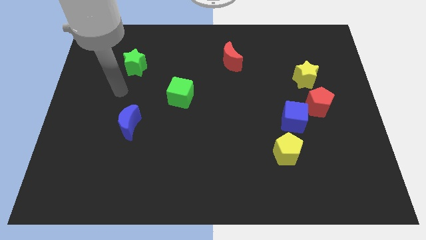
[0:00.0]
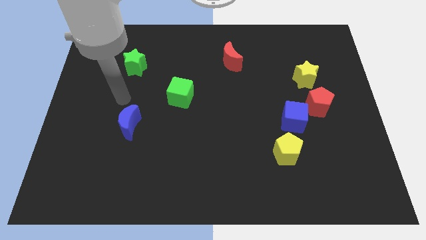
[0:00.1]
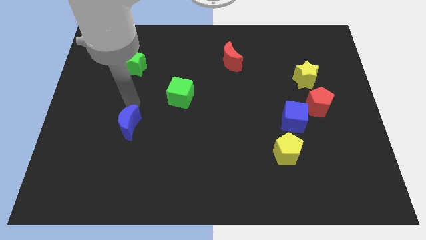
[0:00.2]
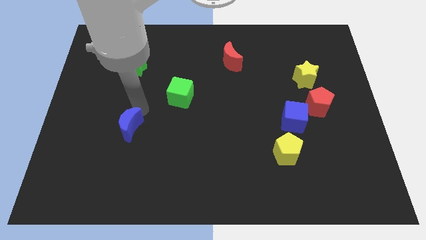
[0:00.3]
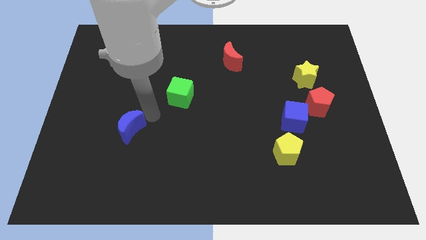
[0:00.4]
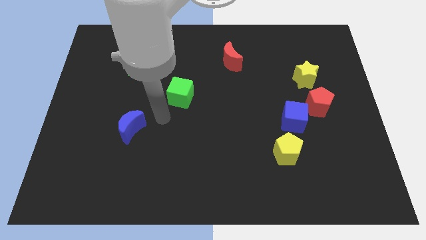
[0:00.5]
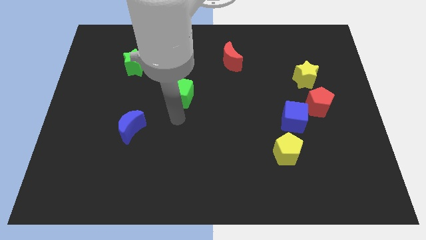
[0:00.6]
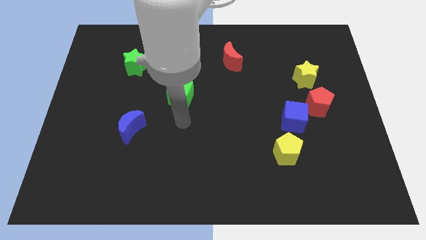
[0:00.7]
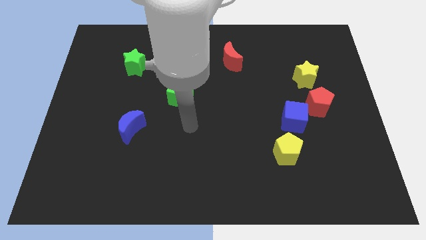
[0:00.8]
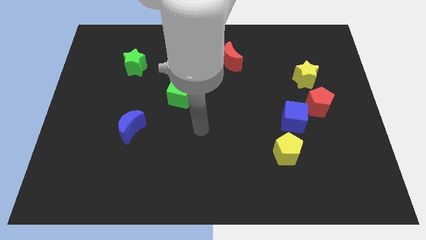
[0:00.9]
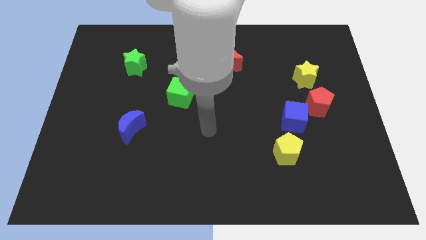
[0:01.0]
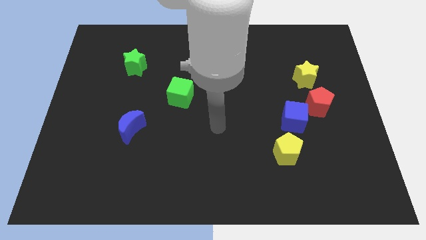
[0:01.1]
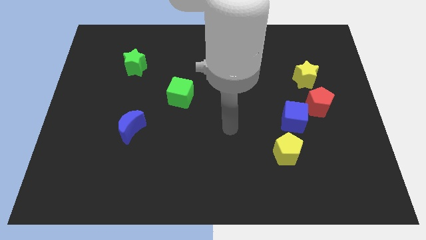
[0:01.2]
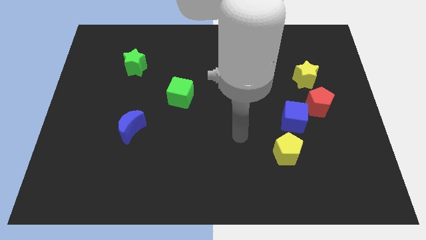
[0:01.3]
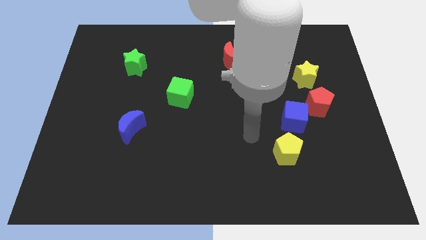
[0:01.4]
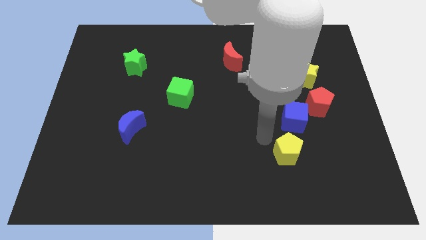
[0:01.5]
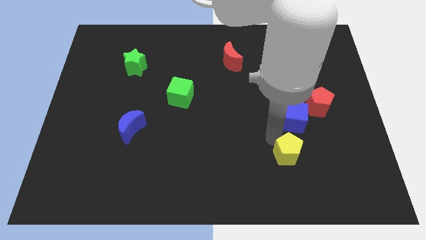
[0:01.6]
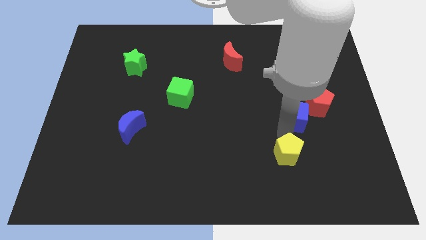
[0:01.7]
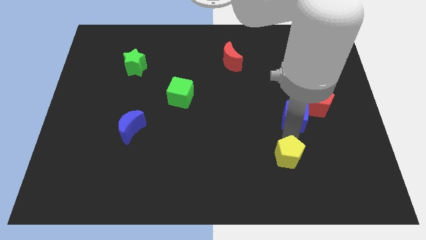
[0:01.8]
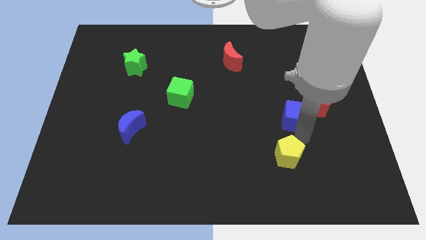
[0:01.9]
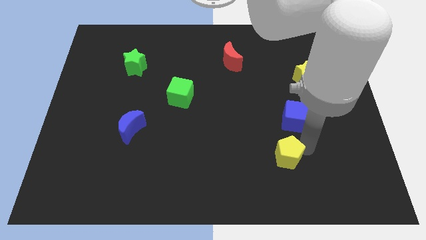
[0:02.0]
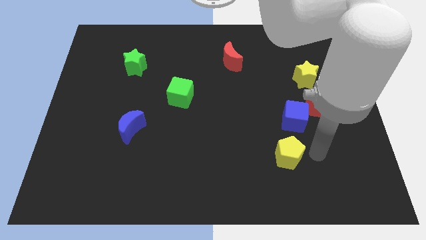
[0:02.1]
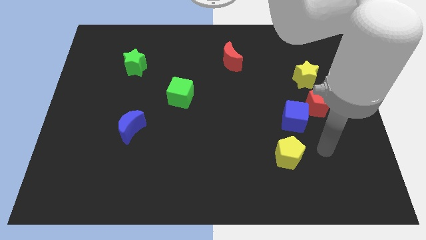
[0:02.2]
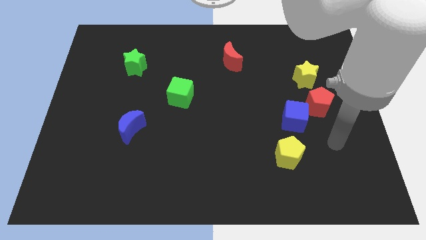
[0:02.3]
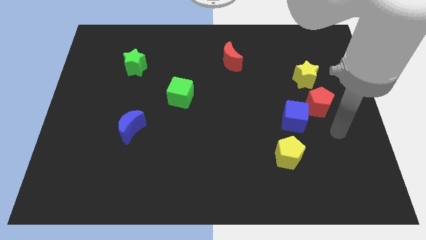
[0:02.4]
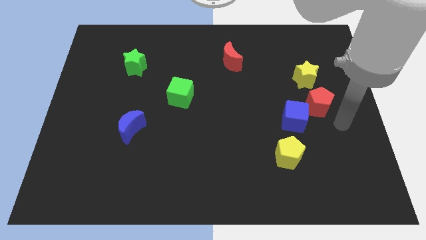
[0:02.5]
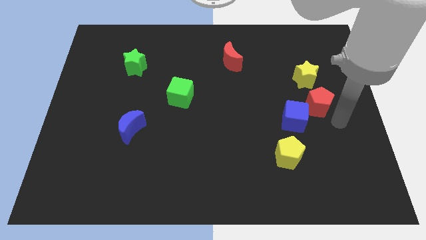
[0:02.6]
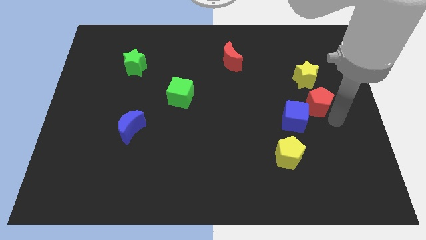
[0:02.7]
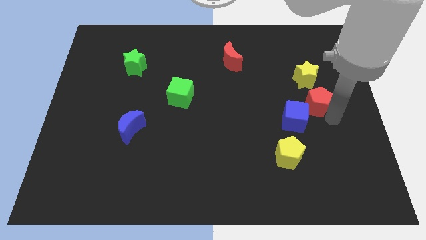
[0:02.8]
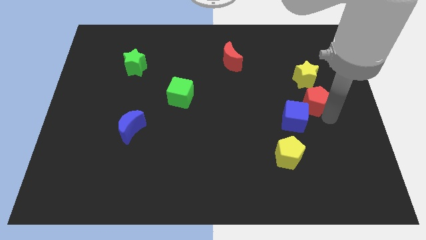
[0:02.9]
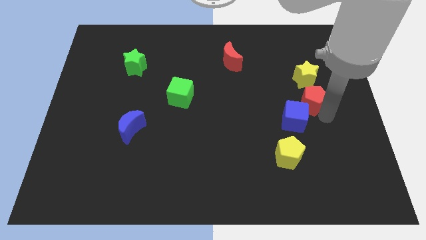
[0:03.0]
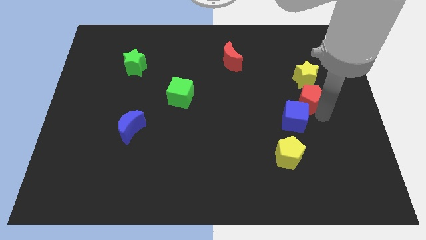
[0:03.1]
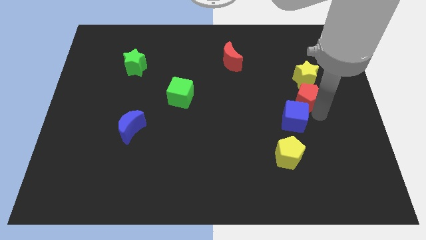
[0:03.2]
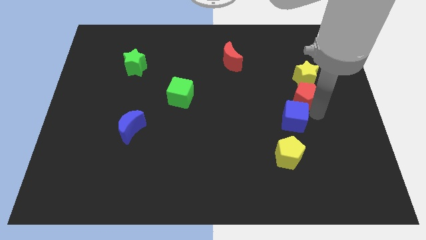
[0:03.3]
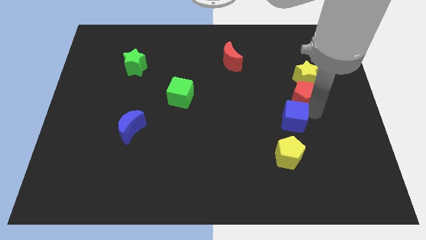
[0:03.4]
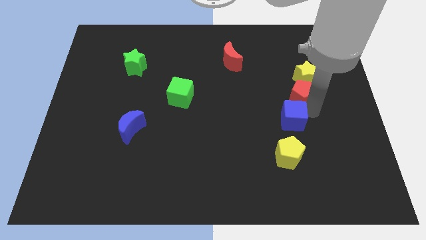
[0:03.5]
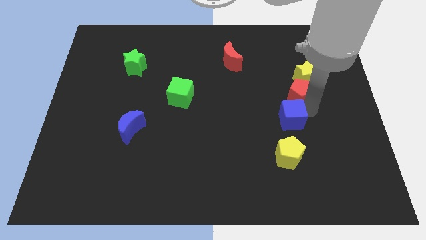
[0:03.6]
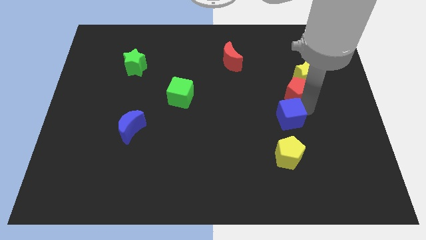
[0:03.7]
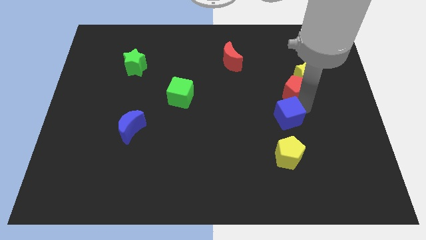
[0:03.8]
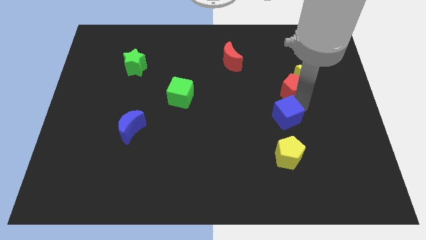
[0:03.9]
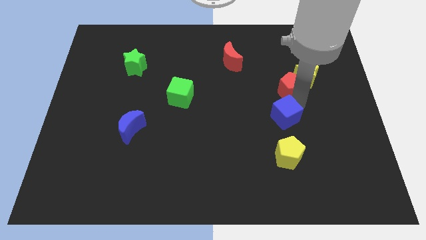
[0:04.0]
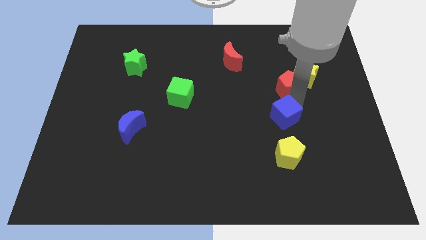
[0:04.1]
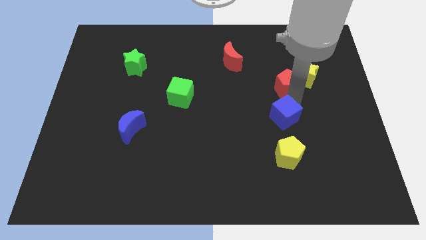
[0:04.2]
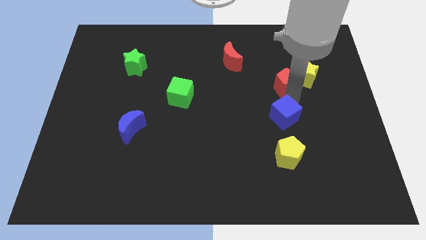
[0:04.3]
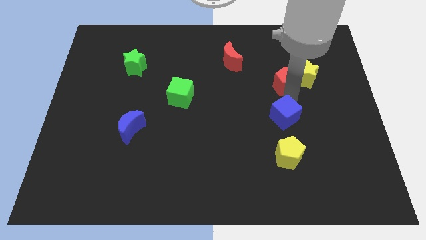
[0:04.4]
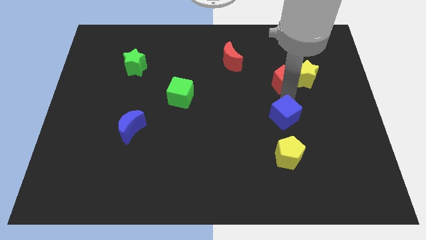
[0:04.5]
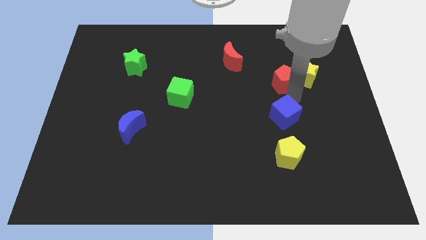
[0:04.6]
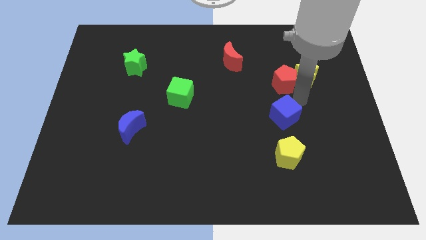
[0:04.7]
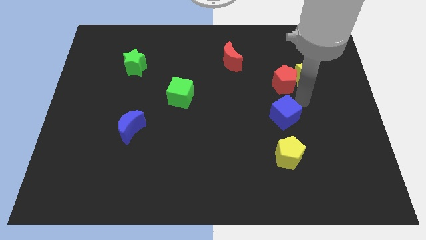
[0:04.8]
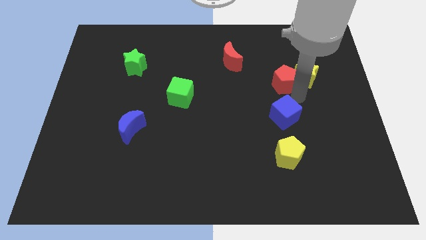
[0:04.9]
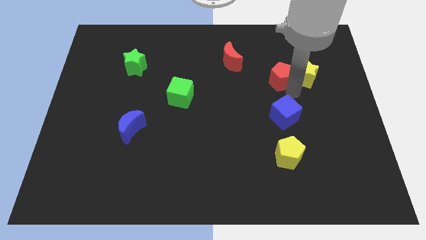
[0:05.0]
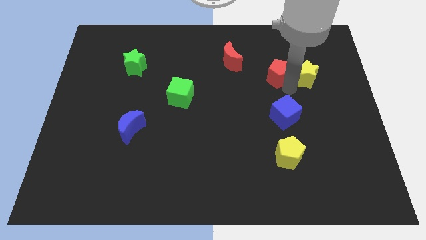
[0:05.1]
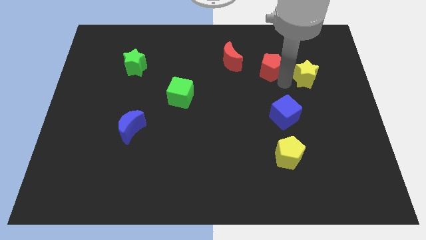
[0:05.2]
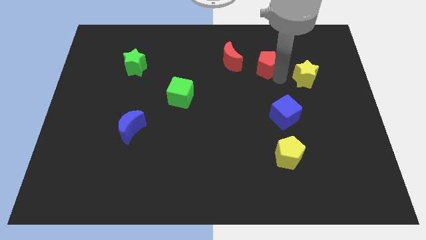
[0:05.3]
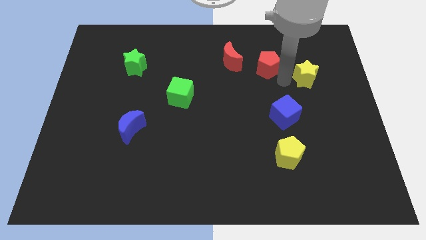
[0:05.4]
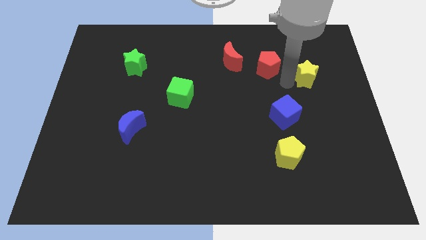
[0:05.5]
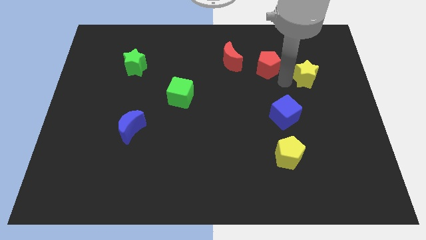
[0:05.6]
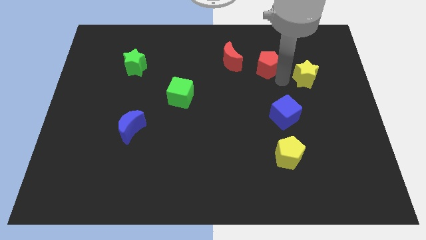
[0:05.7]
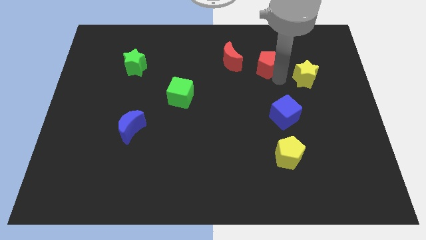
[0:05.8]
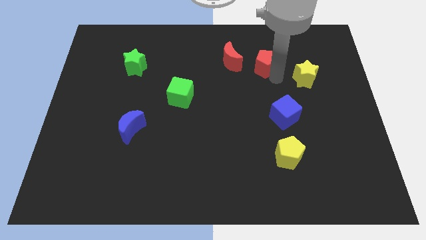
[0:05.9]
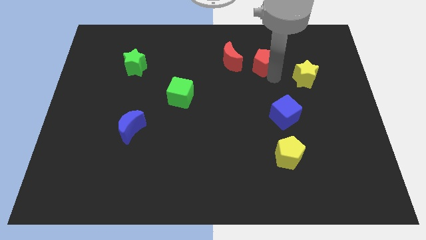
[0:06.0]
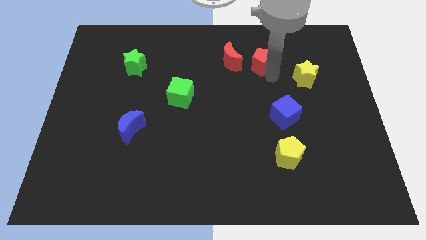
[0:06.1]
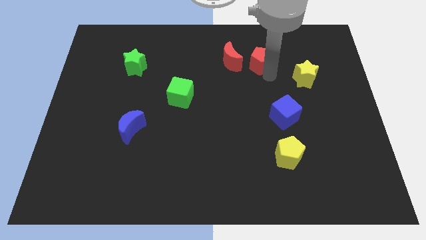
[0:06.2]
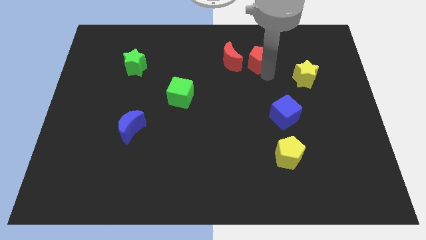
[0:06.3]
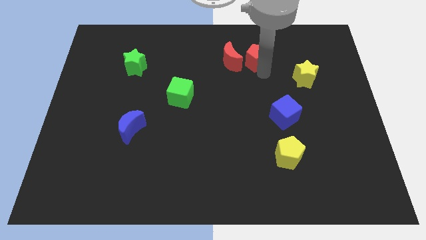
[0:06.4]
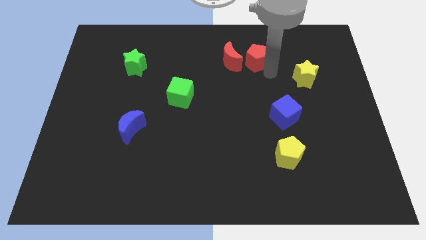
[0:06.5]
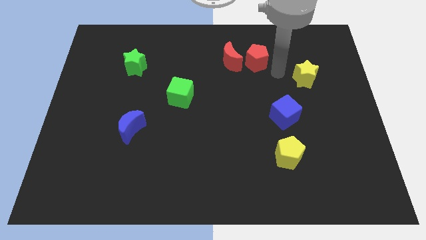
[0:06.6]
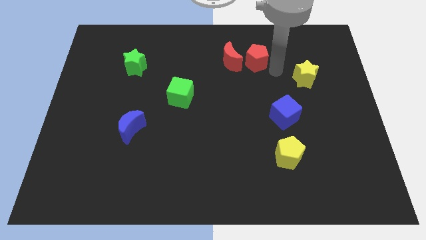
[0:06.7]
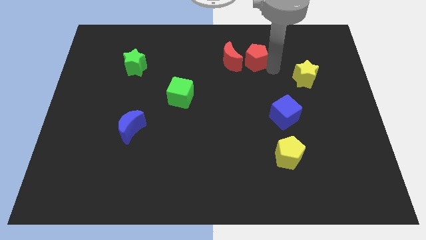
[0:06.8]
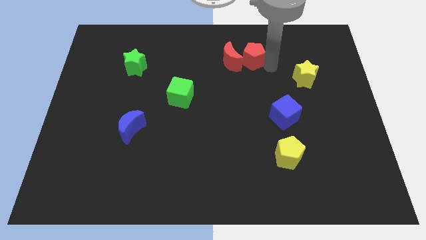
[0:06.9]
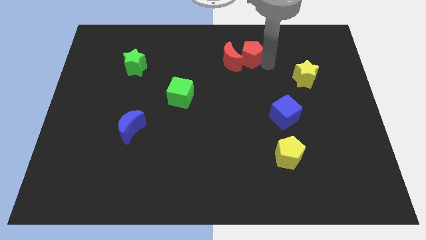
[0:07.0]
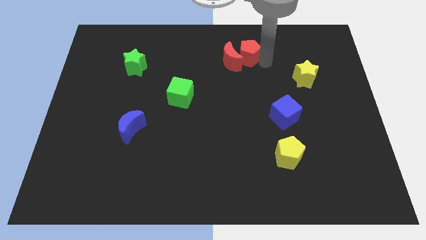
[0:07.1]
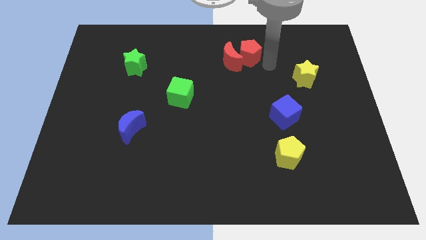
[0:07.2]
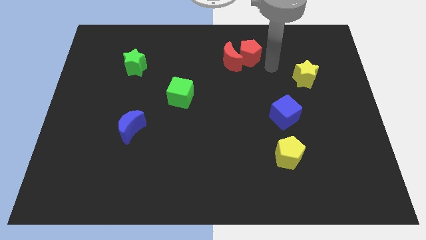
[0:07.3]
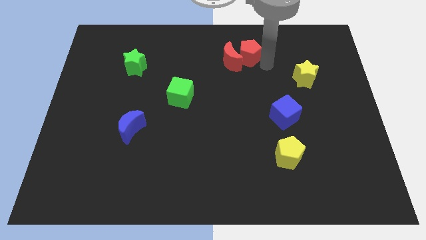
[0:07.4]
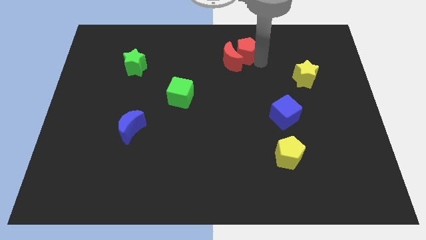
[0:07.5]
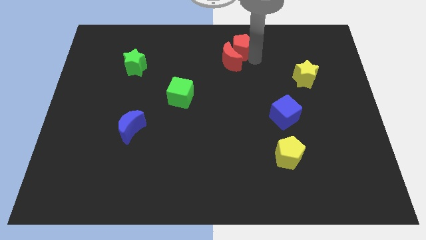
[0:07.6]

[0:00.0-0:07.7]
put the red pentagon to the towards your base
